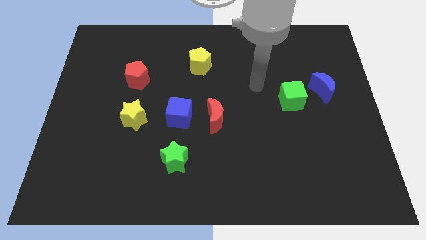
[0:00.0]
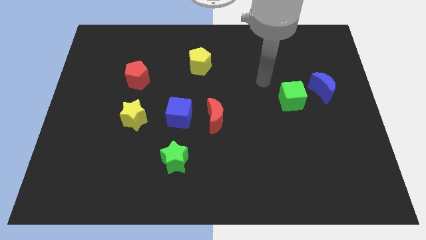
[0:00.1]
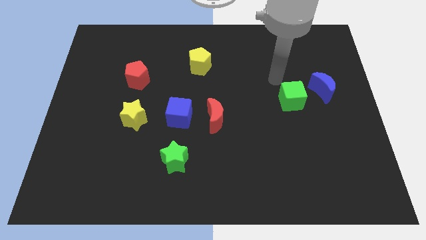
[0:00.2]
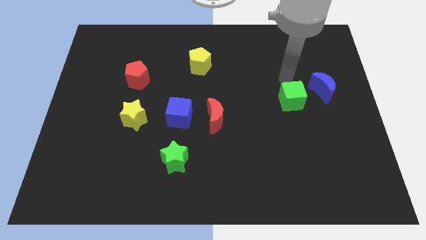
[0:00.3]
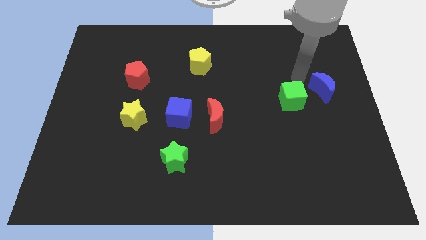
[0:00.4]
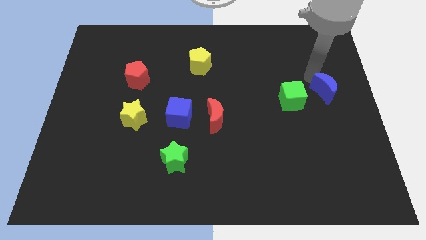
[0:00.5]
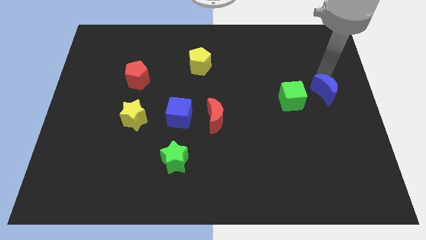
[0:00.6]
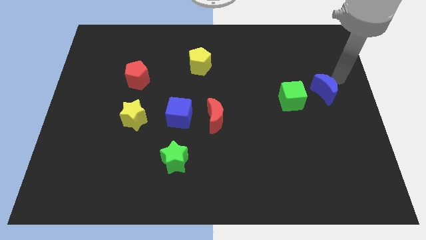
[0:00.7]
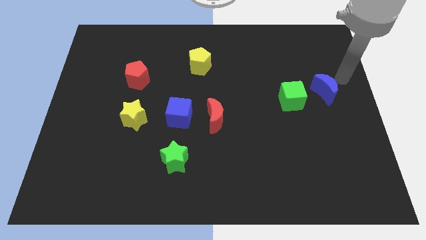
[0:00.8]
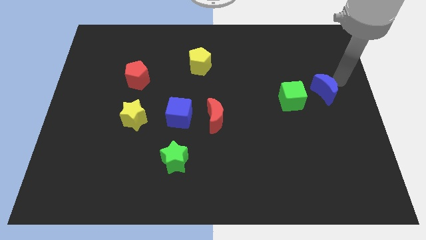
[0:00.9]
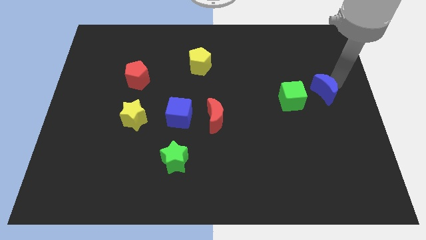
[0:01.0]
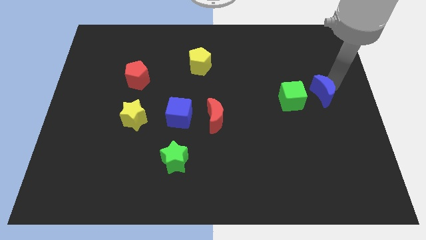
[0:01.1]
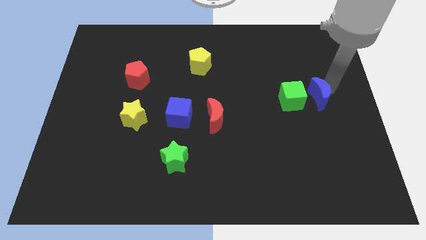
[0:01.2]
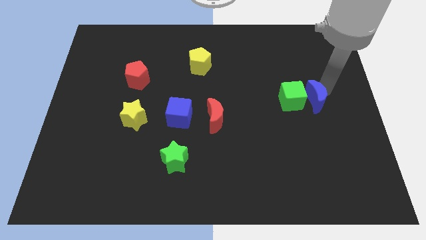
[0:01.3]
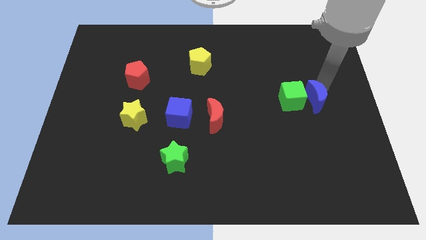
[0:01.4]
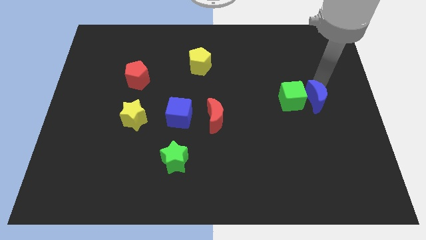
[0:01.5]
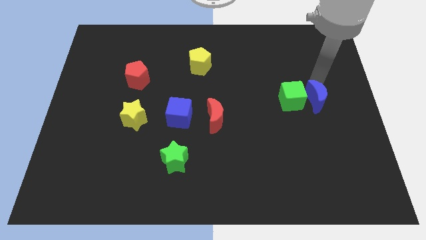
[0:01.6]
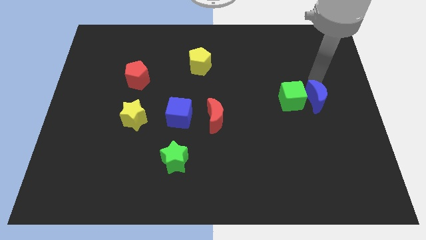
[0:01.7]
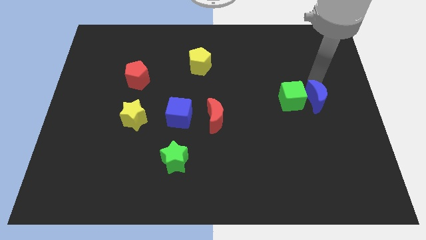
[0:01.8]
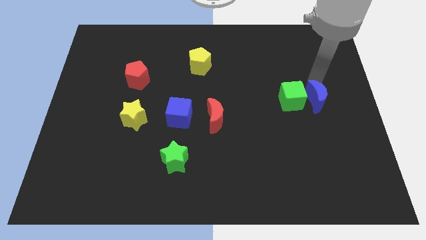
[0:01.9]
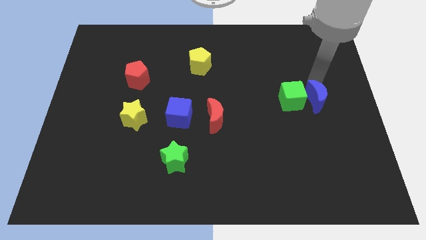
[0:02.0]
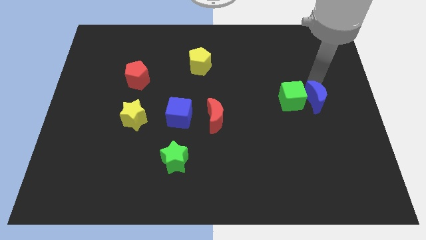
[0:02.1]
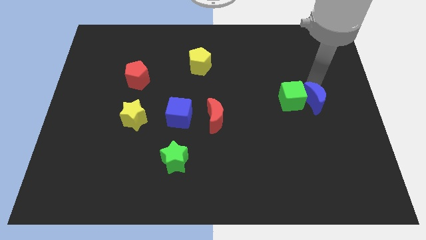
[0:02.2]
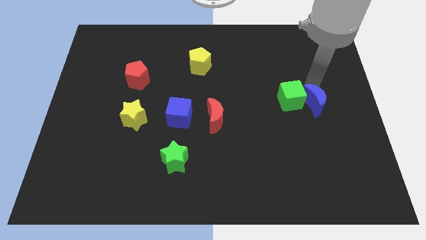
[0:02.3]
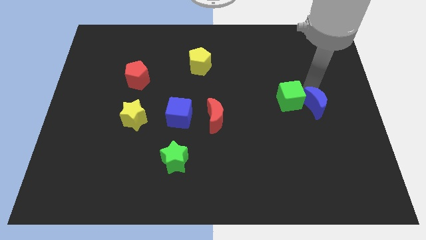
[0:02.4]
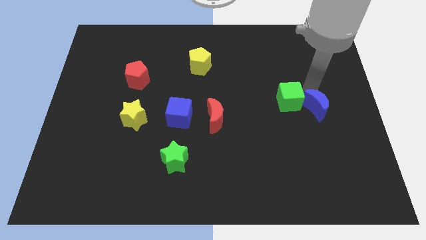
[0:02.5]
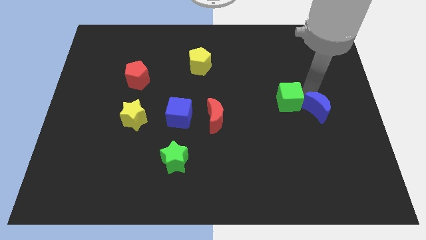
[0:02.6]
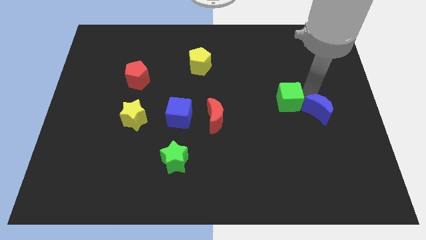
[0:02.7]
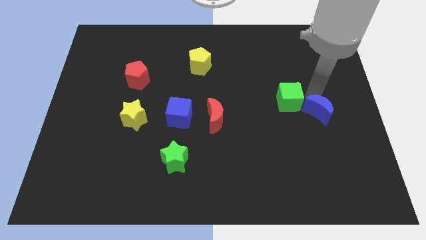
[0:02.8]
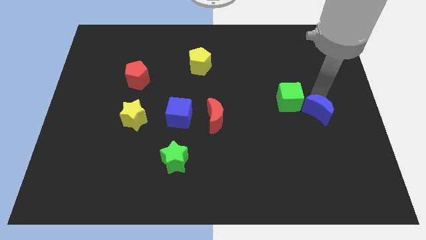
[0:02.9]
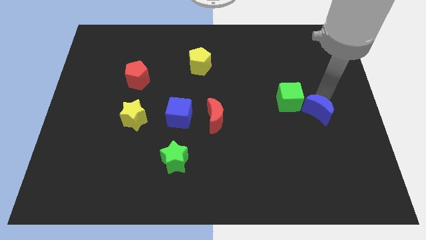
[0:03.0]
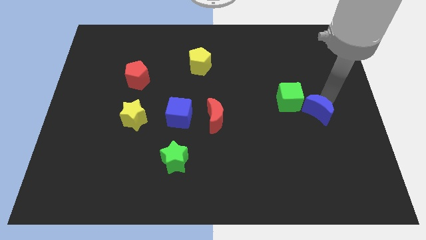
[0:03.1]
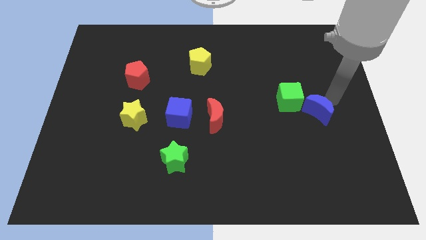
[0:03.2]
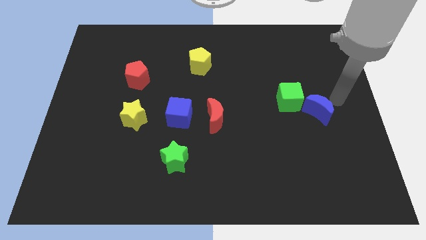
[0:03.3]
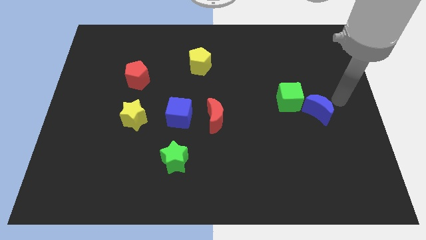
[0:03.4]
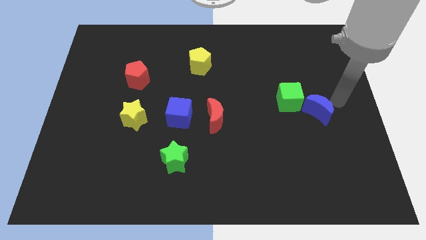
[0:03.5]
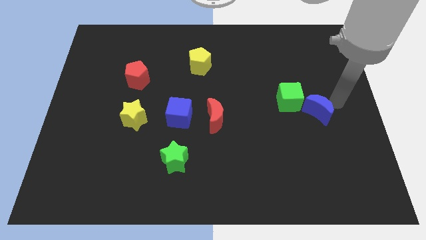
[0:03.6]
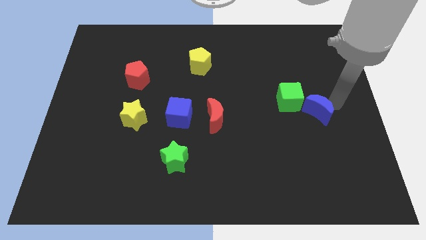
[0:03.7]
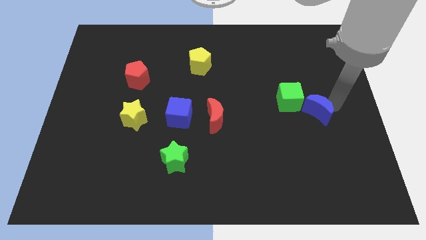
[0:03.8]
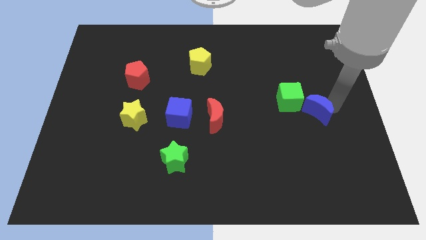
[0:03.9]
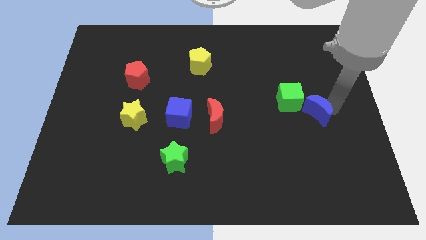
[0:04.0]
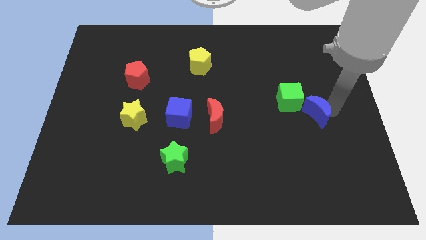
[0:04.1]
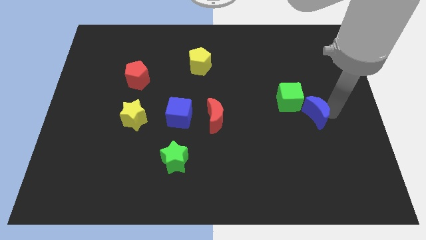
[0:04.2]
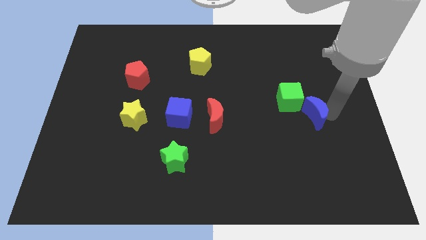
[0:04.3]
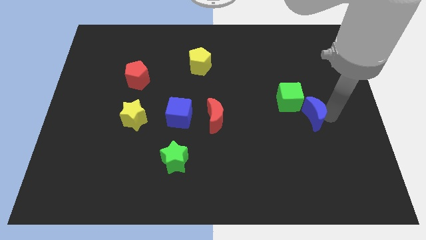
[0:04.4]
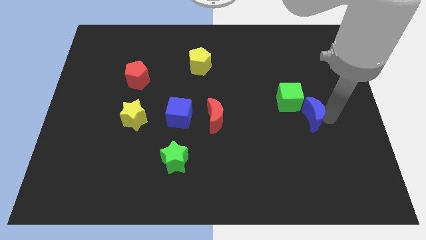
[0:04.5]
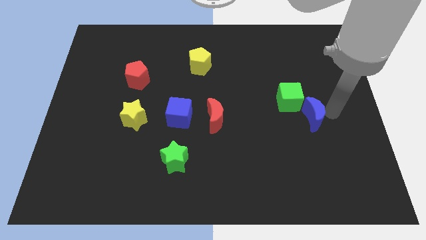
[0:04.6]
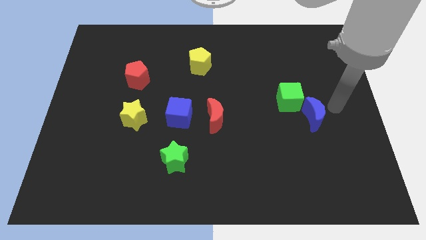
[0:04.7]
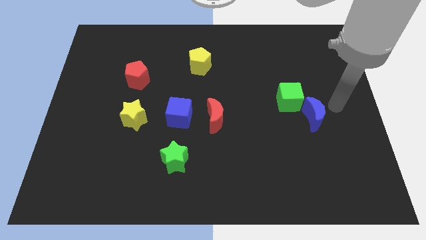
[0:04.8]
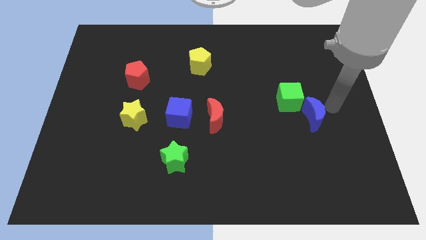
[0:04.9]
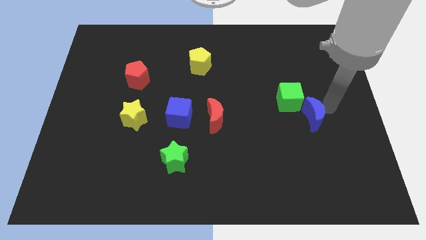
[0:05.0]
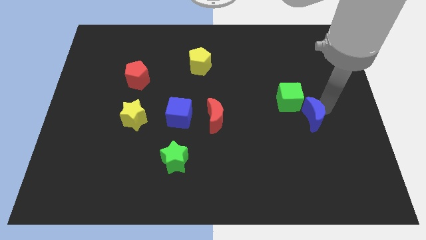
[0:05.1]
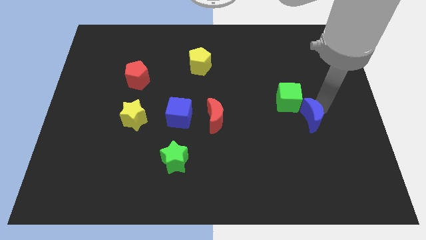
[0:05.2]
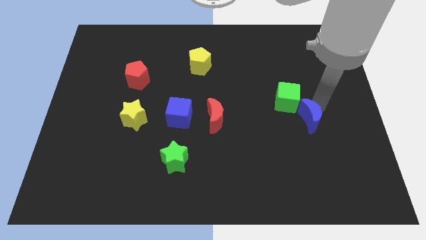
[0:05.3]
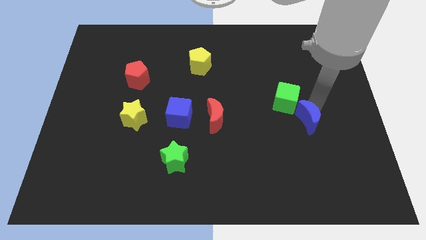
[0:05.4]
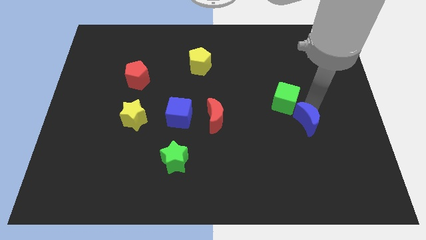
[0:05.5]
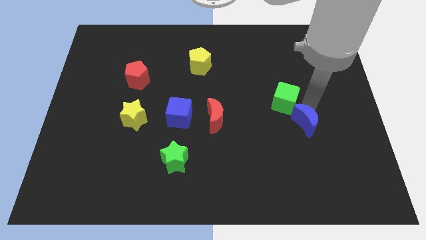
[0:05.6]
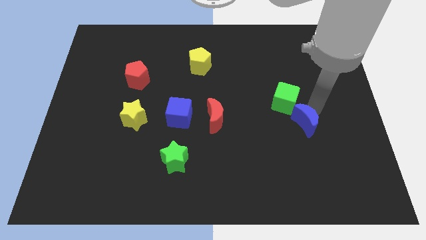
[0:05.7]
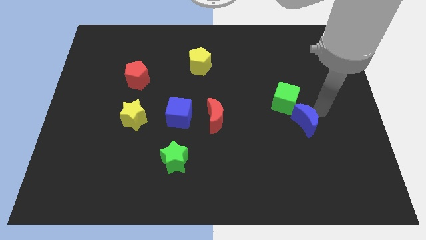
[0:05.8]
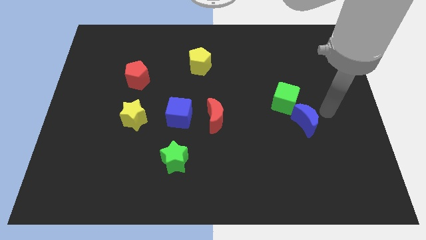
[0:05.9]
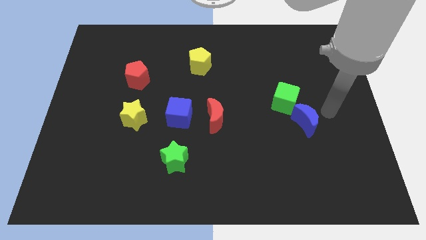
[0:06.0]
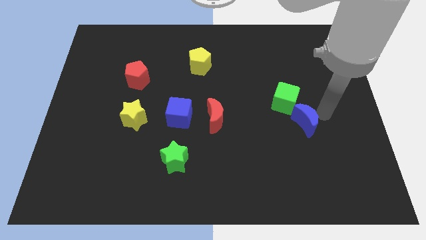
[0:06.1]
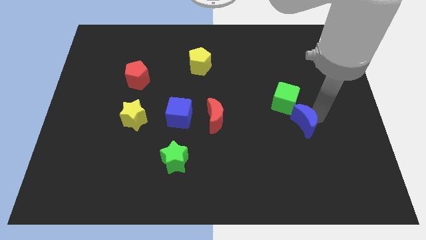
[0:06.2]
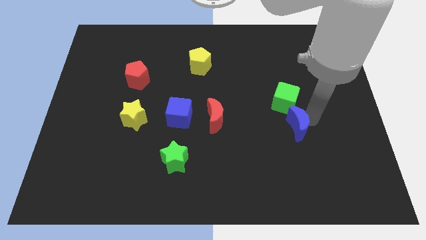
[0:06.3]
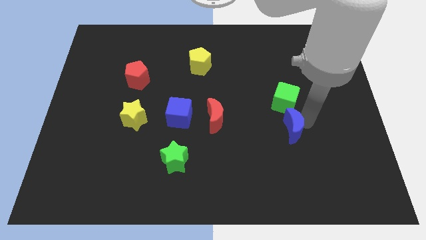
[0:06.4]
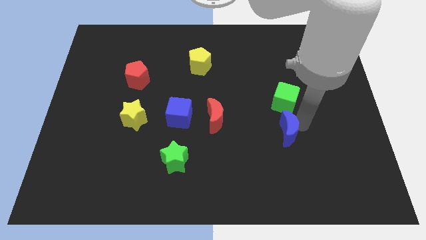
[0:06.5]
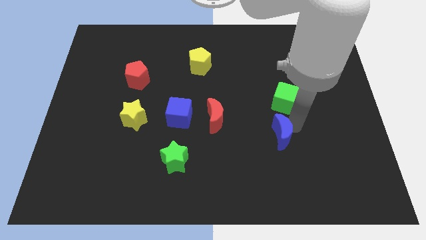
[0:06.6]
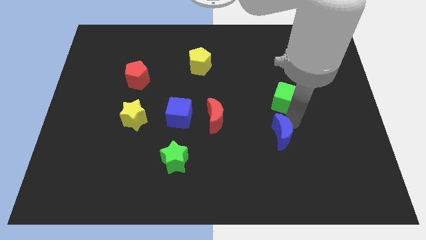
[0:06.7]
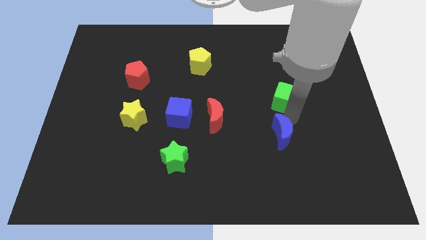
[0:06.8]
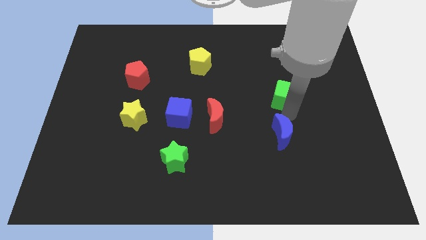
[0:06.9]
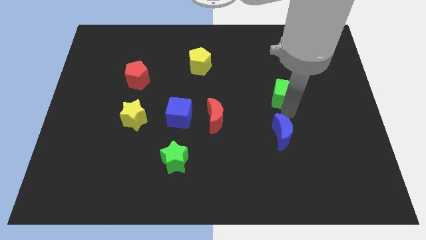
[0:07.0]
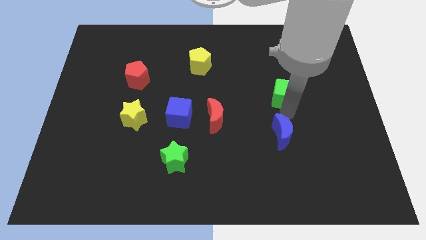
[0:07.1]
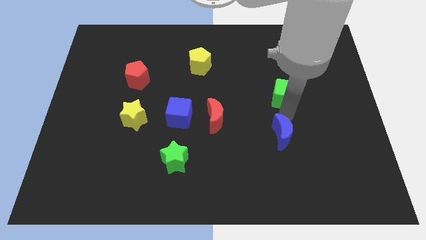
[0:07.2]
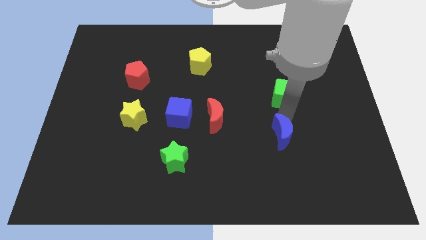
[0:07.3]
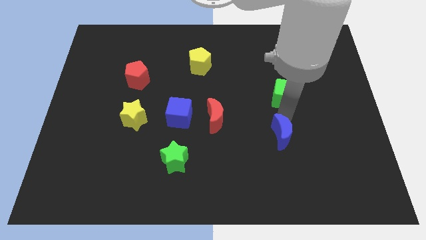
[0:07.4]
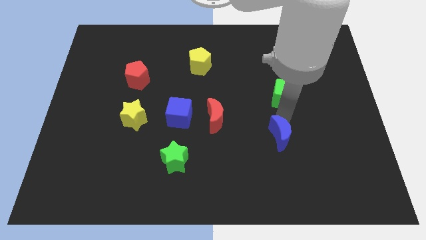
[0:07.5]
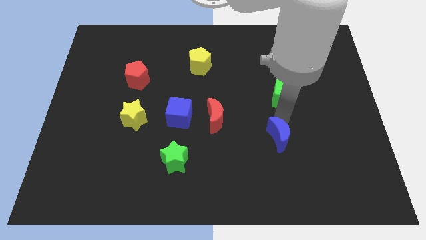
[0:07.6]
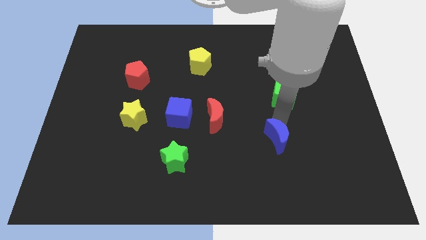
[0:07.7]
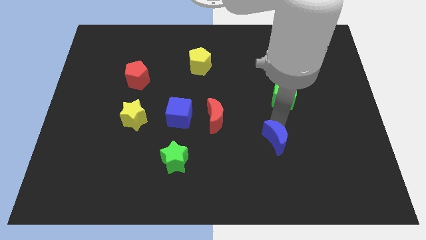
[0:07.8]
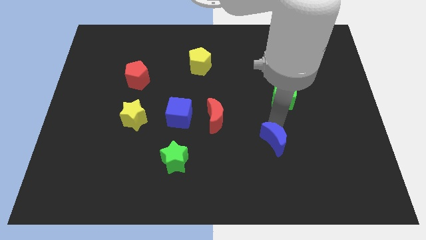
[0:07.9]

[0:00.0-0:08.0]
push the blue moon down and left diagonally
